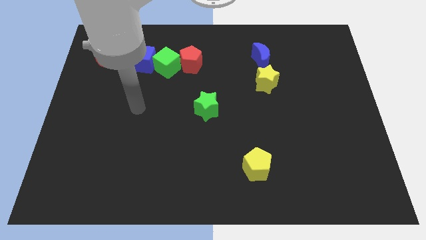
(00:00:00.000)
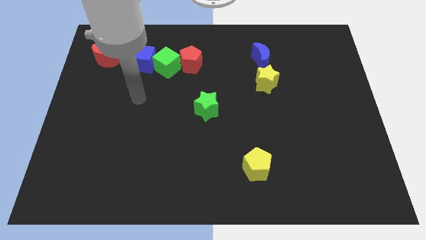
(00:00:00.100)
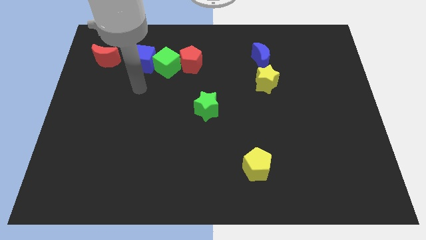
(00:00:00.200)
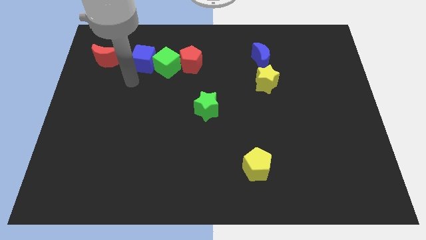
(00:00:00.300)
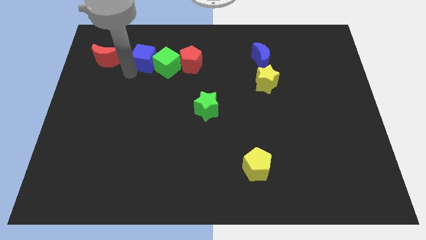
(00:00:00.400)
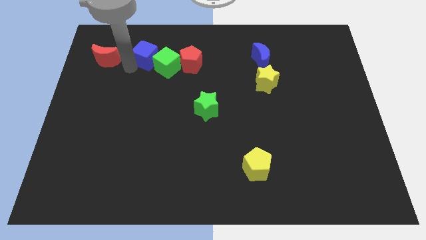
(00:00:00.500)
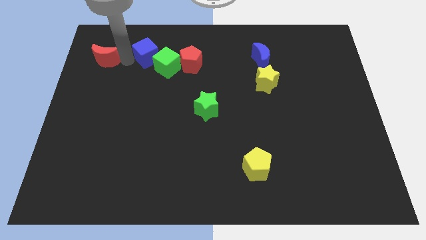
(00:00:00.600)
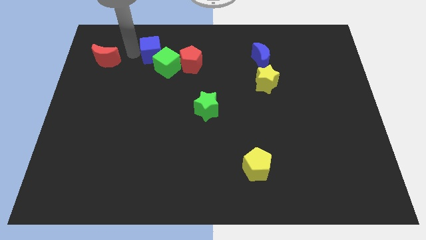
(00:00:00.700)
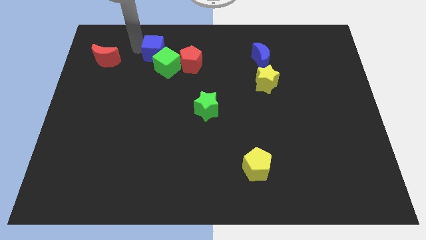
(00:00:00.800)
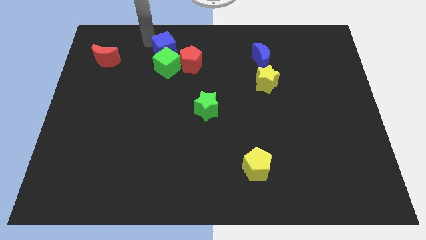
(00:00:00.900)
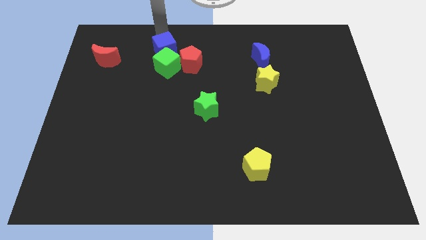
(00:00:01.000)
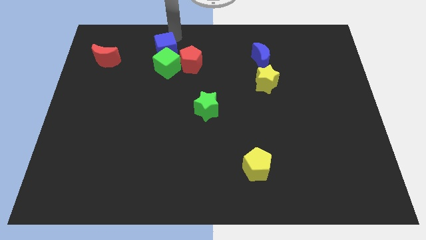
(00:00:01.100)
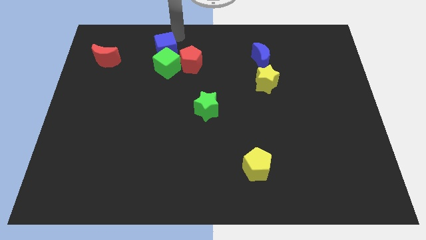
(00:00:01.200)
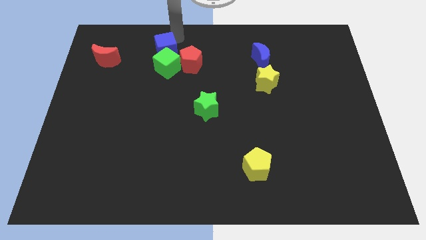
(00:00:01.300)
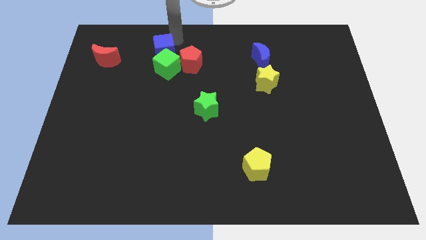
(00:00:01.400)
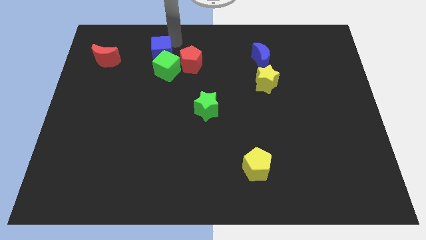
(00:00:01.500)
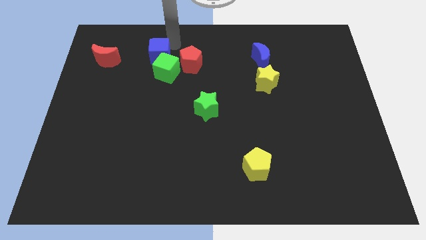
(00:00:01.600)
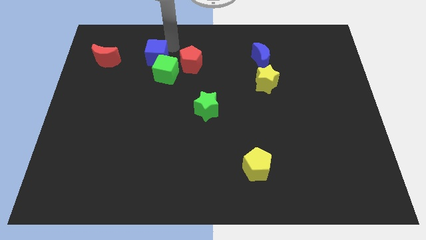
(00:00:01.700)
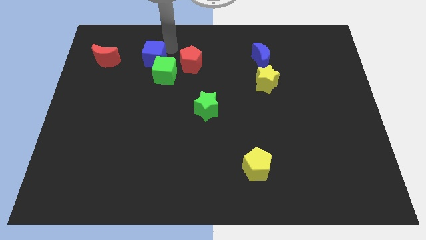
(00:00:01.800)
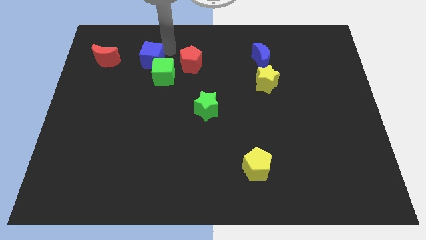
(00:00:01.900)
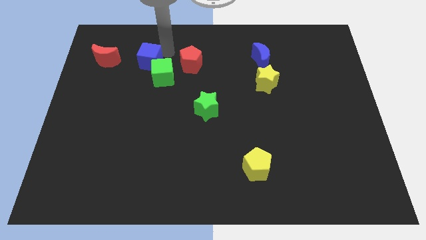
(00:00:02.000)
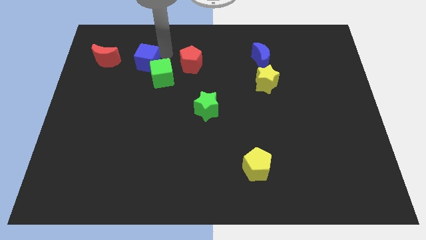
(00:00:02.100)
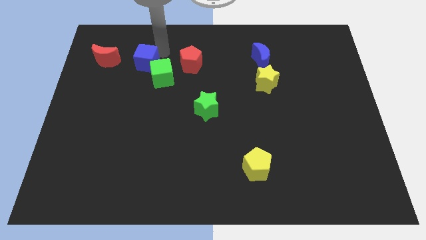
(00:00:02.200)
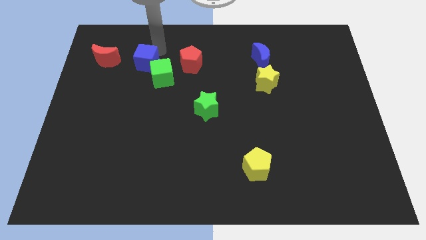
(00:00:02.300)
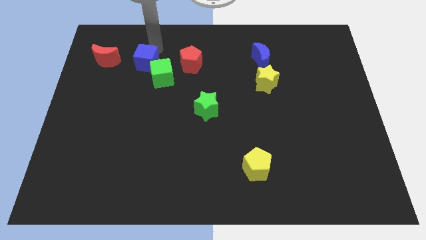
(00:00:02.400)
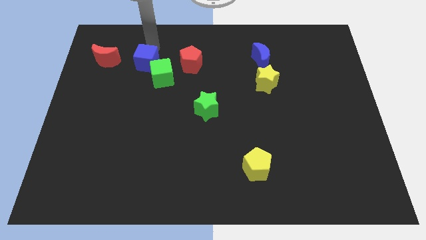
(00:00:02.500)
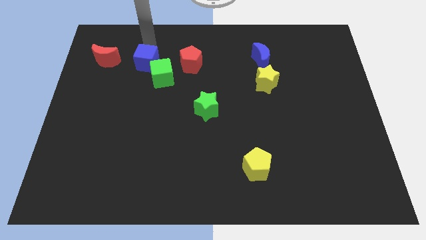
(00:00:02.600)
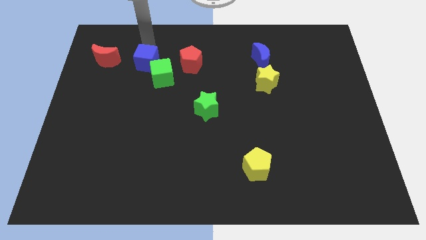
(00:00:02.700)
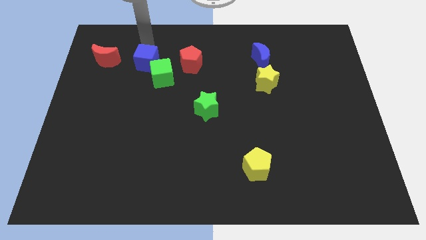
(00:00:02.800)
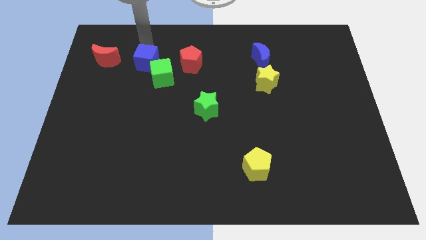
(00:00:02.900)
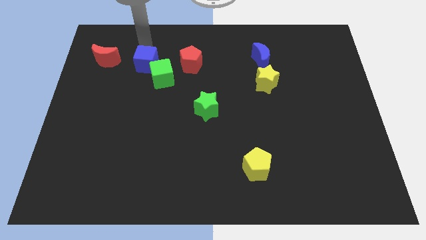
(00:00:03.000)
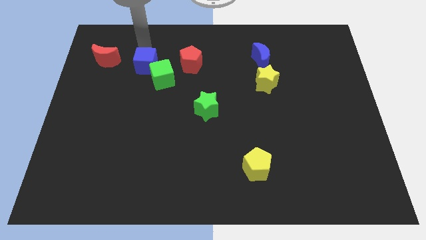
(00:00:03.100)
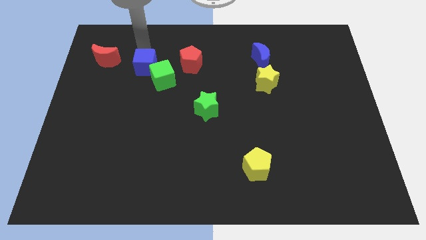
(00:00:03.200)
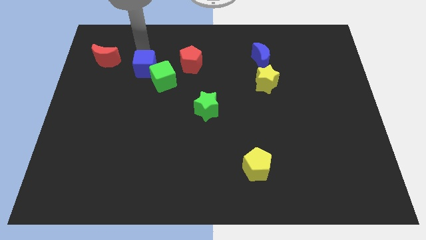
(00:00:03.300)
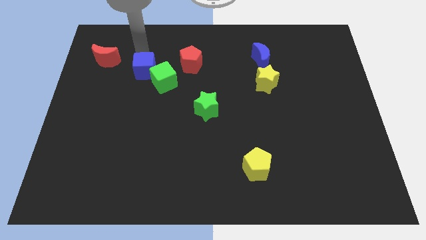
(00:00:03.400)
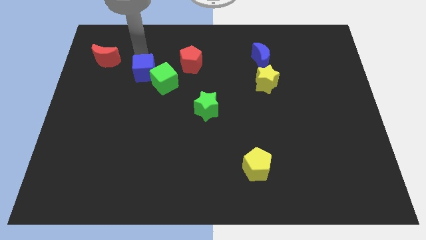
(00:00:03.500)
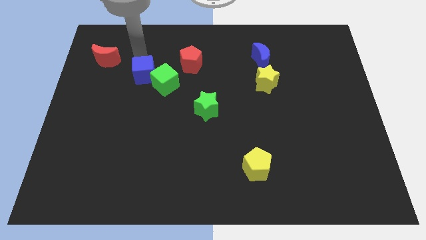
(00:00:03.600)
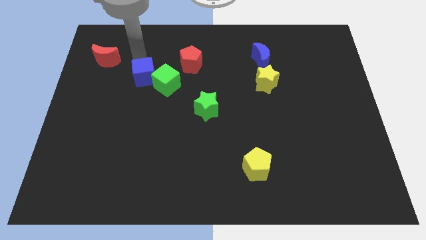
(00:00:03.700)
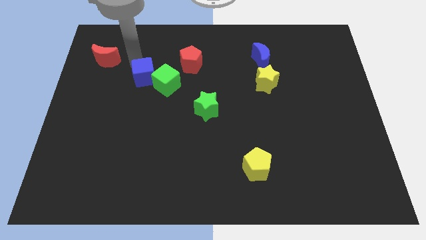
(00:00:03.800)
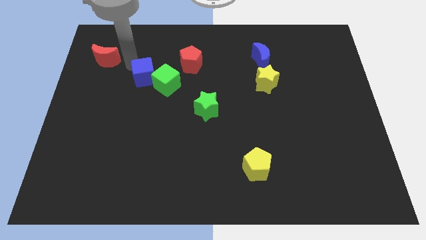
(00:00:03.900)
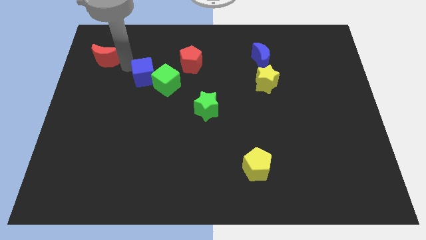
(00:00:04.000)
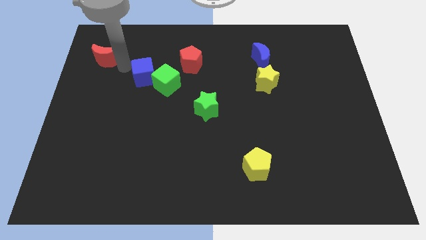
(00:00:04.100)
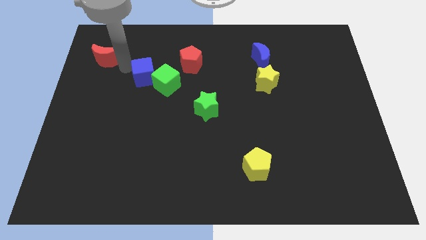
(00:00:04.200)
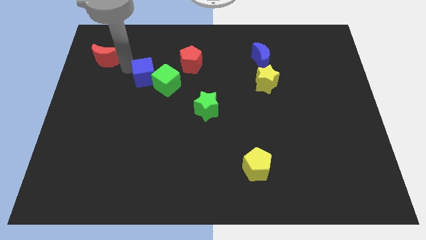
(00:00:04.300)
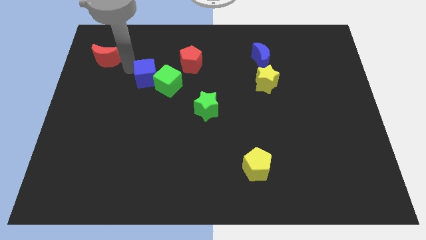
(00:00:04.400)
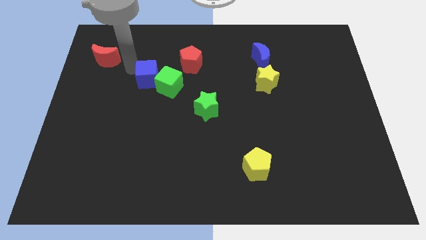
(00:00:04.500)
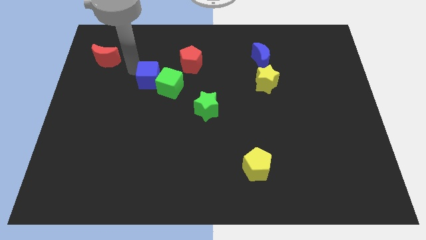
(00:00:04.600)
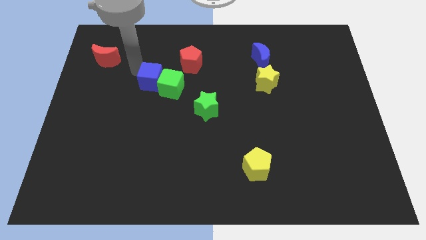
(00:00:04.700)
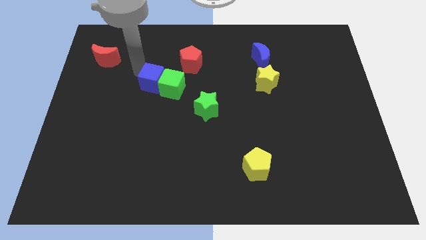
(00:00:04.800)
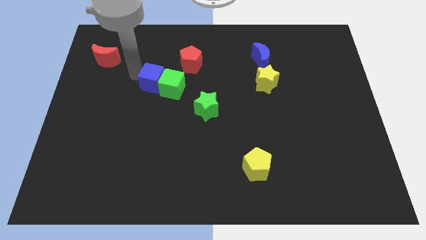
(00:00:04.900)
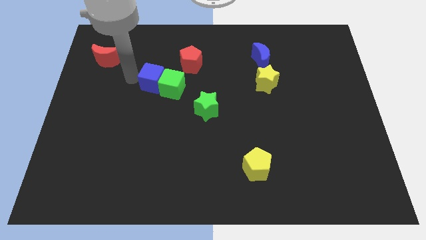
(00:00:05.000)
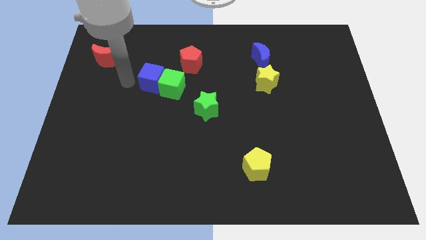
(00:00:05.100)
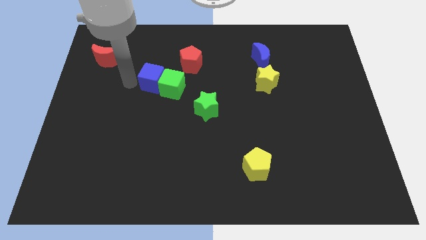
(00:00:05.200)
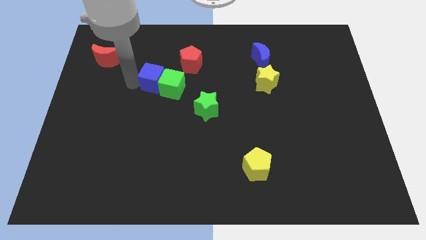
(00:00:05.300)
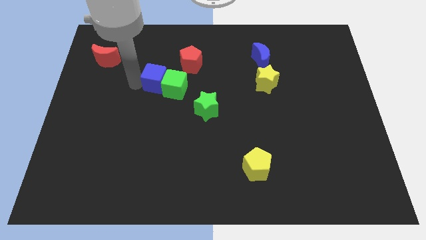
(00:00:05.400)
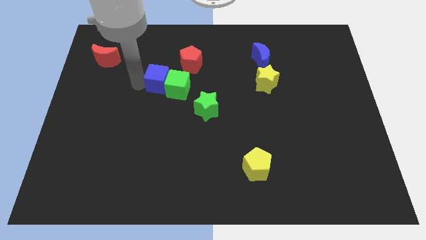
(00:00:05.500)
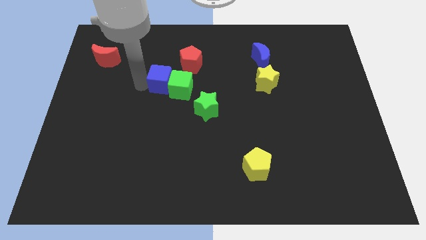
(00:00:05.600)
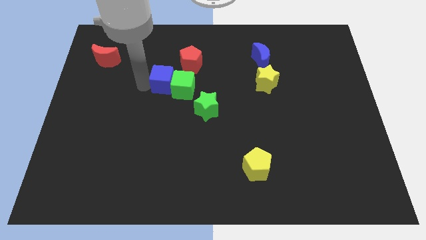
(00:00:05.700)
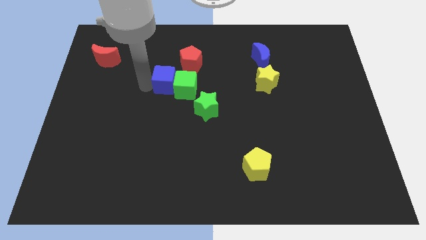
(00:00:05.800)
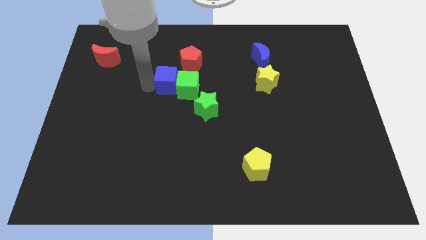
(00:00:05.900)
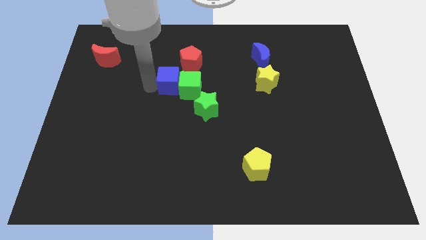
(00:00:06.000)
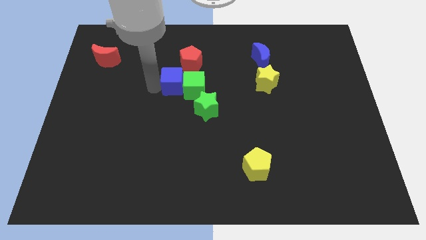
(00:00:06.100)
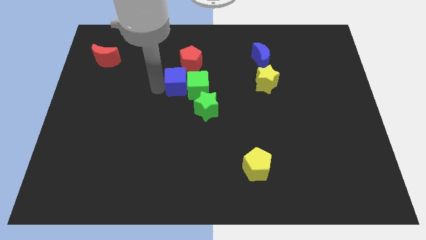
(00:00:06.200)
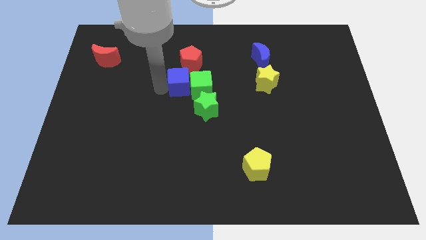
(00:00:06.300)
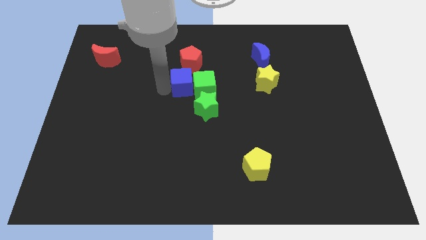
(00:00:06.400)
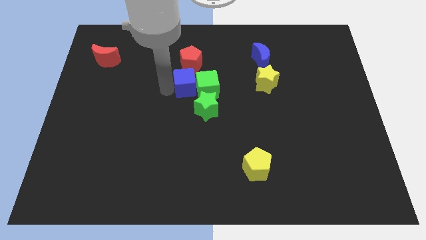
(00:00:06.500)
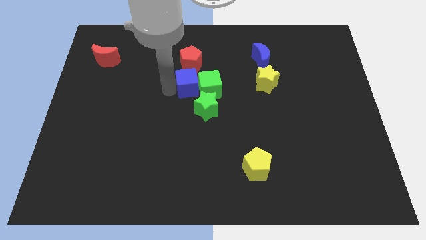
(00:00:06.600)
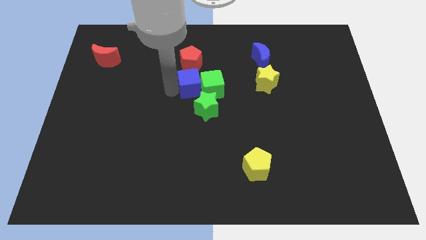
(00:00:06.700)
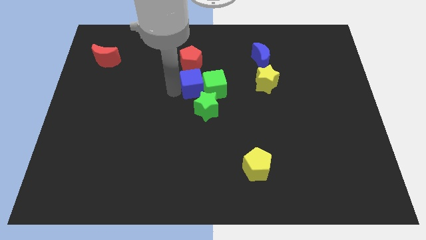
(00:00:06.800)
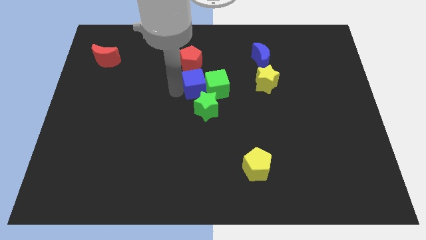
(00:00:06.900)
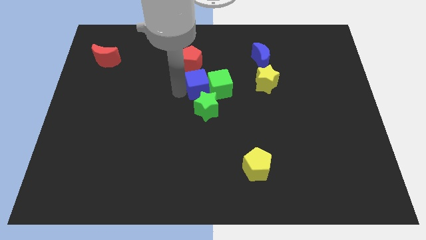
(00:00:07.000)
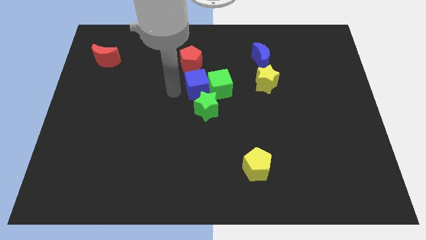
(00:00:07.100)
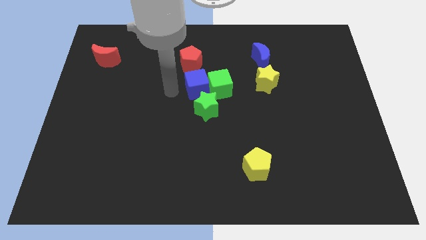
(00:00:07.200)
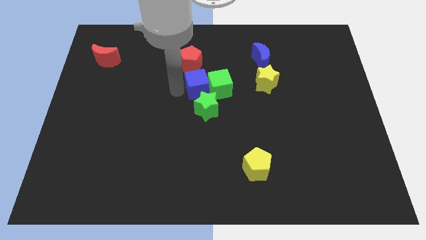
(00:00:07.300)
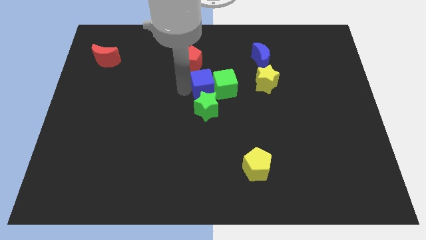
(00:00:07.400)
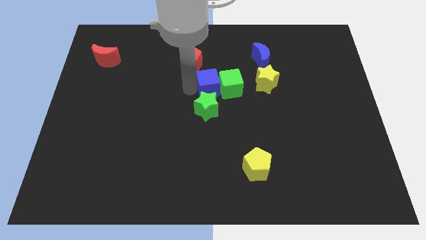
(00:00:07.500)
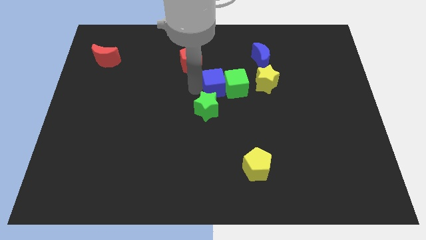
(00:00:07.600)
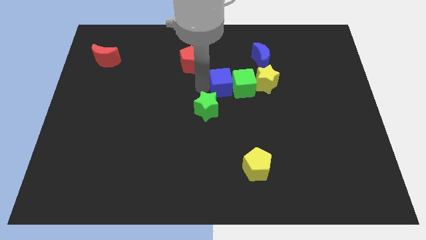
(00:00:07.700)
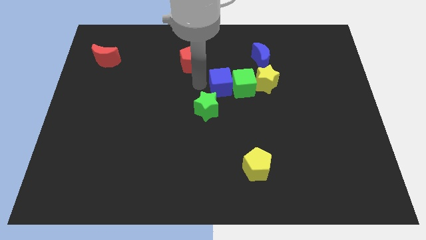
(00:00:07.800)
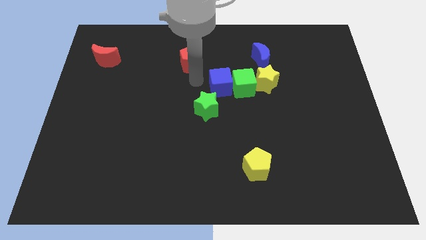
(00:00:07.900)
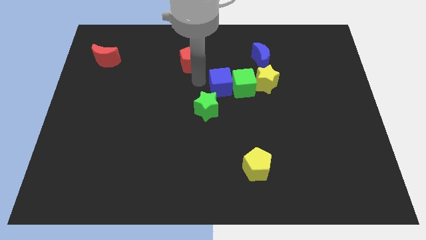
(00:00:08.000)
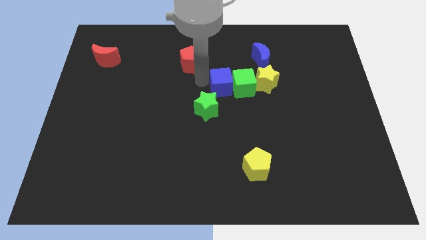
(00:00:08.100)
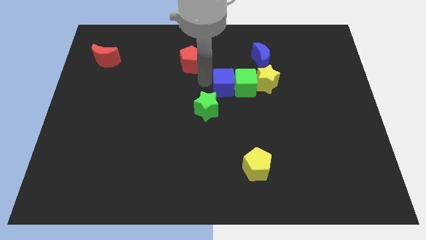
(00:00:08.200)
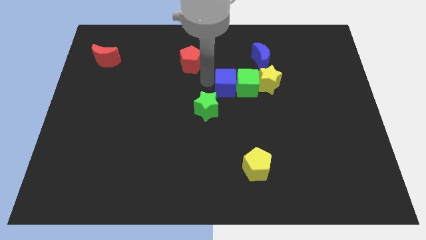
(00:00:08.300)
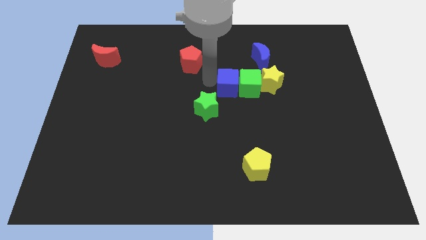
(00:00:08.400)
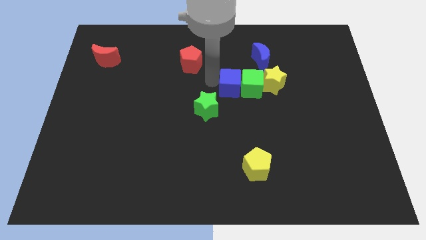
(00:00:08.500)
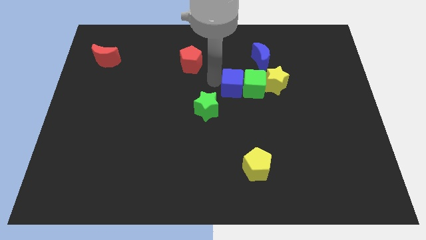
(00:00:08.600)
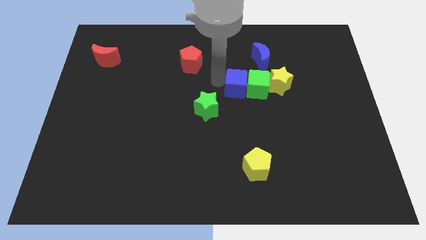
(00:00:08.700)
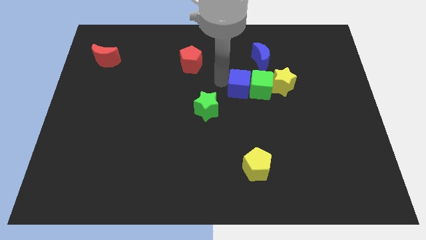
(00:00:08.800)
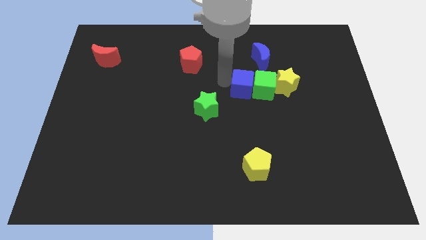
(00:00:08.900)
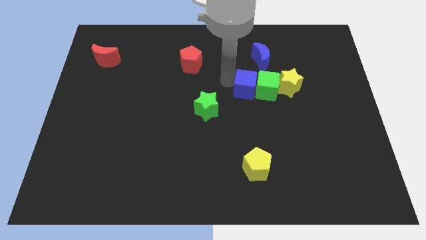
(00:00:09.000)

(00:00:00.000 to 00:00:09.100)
push the blue cube to the bottom side of the blue moon
